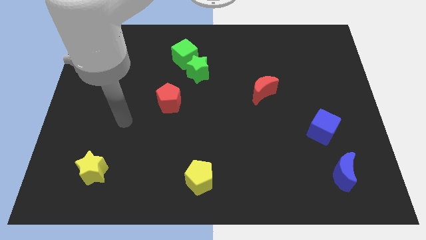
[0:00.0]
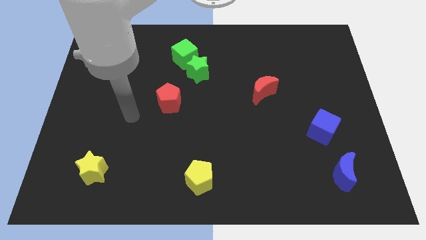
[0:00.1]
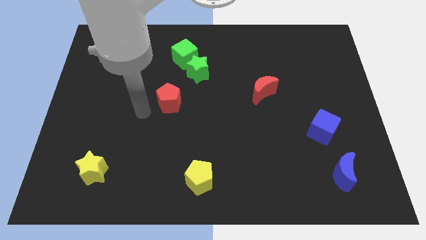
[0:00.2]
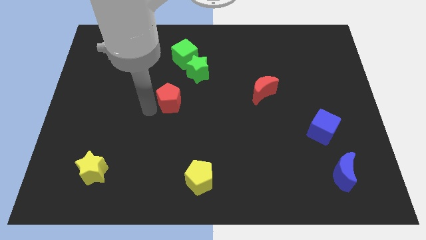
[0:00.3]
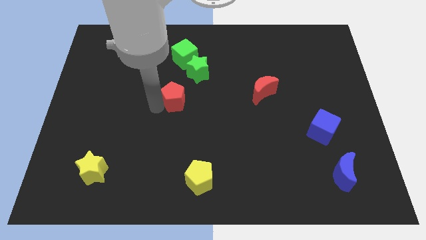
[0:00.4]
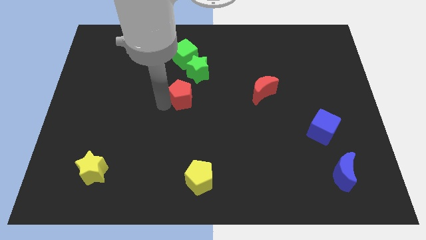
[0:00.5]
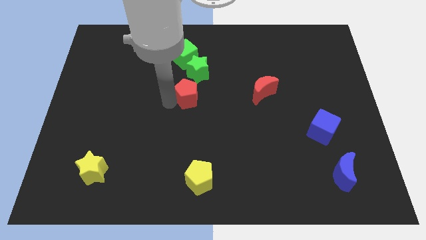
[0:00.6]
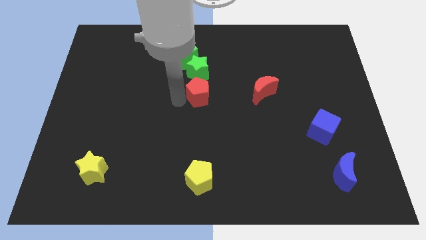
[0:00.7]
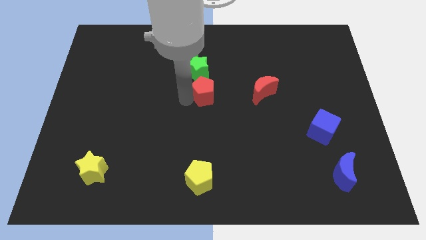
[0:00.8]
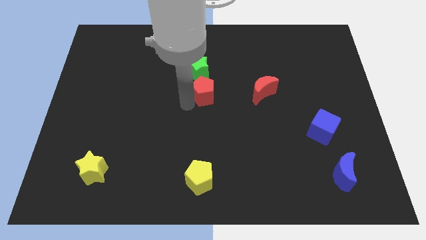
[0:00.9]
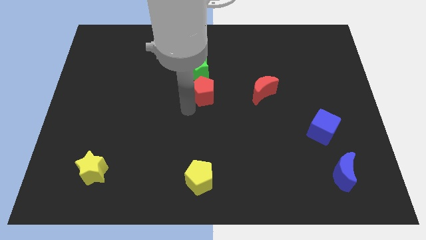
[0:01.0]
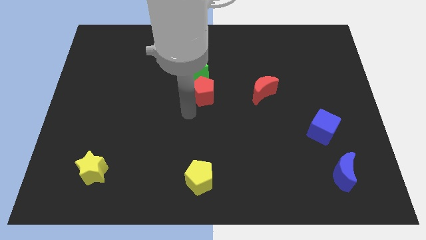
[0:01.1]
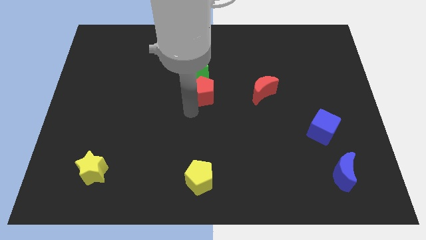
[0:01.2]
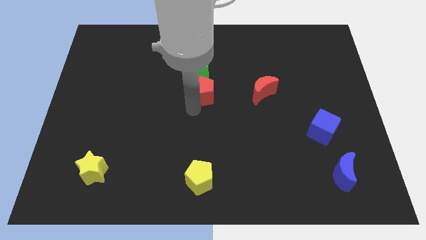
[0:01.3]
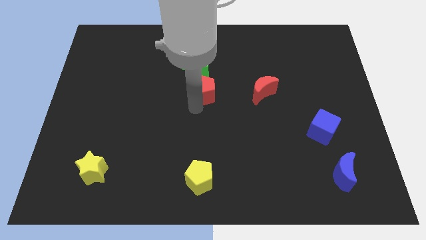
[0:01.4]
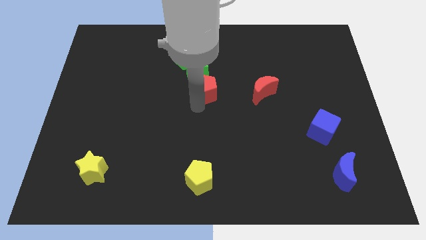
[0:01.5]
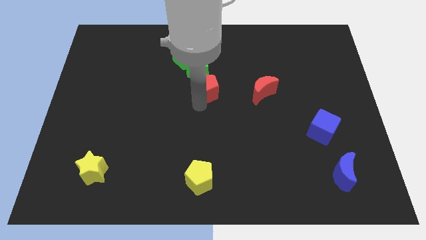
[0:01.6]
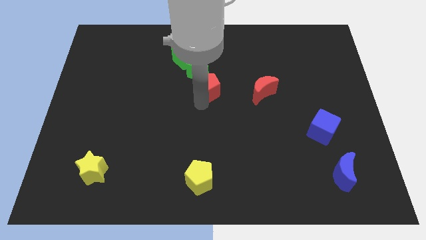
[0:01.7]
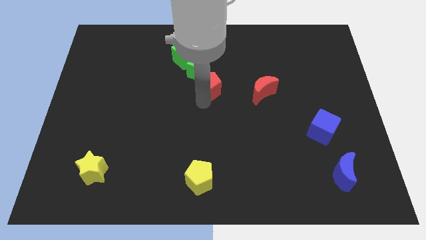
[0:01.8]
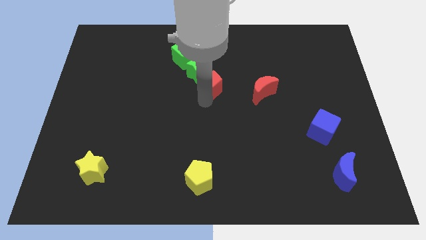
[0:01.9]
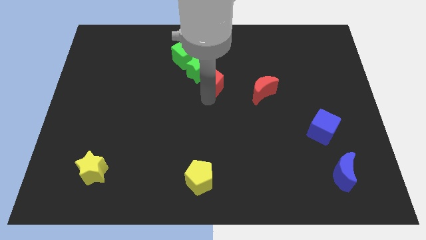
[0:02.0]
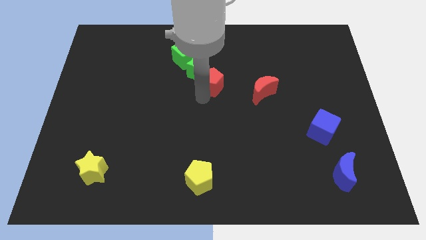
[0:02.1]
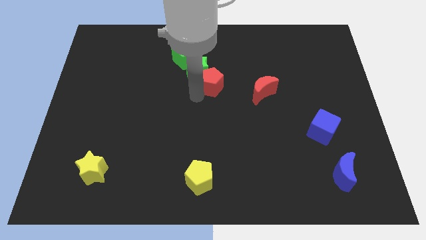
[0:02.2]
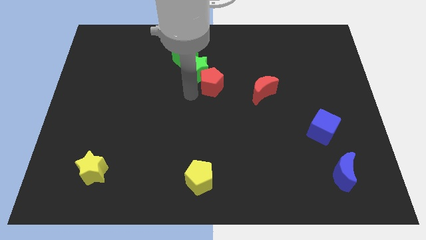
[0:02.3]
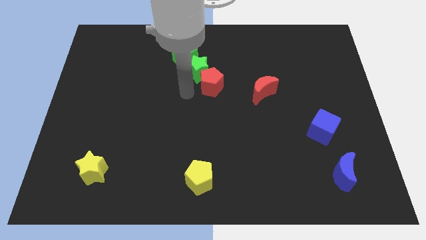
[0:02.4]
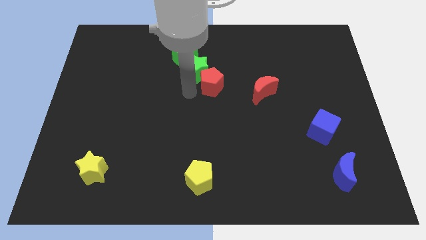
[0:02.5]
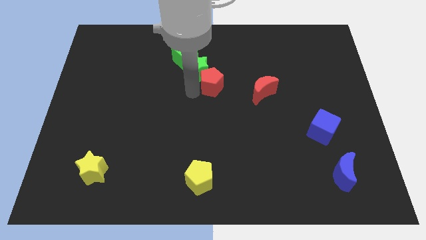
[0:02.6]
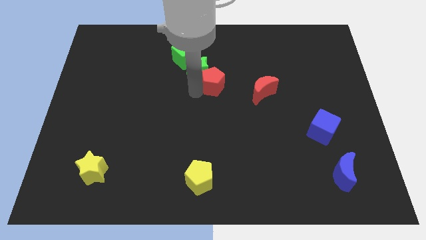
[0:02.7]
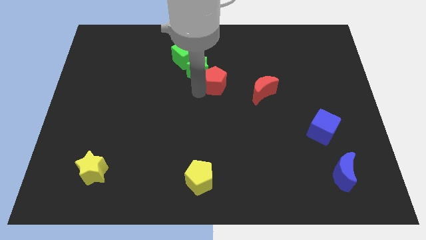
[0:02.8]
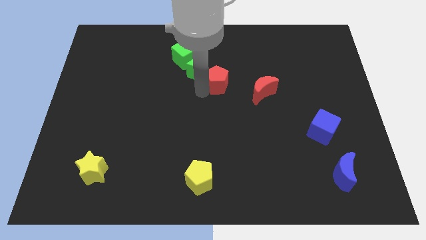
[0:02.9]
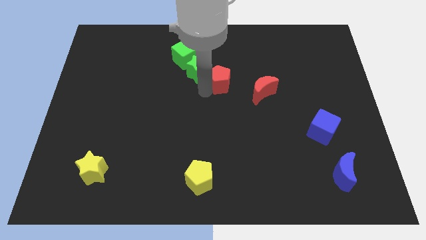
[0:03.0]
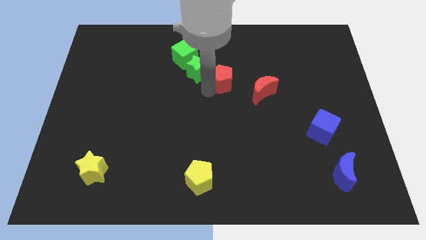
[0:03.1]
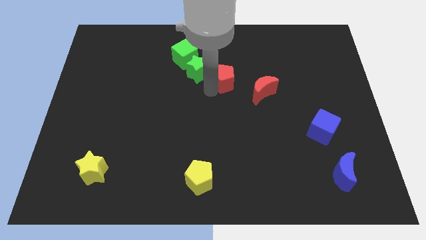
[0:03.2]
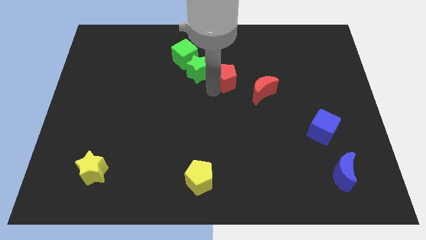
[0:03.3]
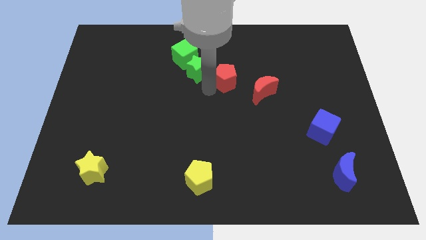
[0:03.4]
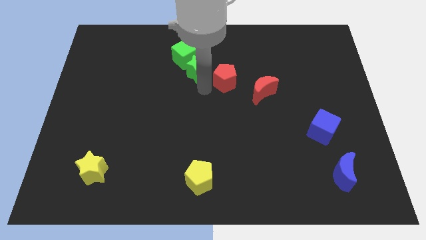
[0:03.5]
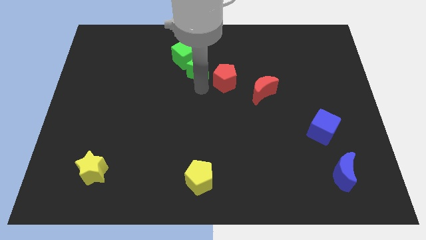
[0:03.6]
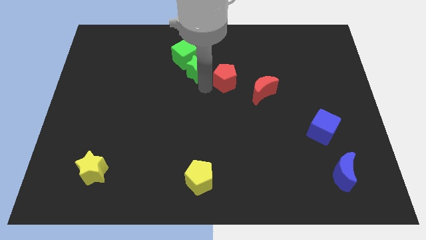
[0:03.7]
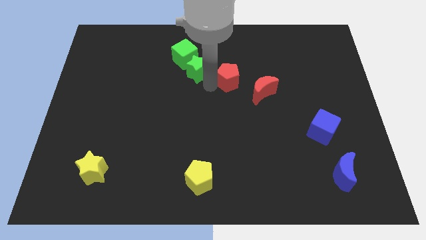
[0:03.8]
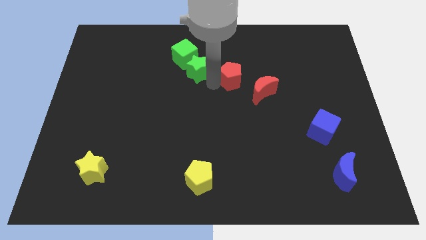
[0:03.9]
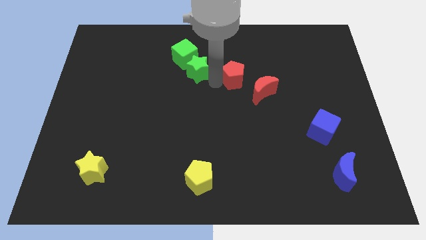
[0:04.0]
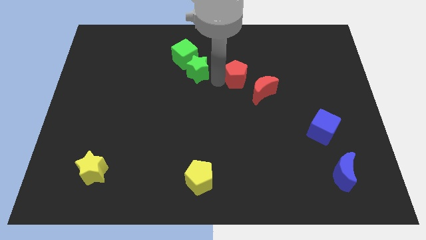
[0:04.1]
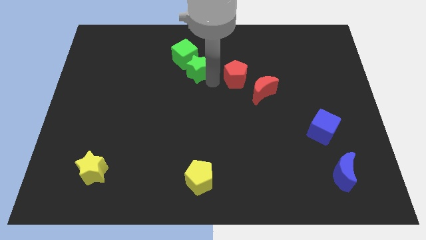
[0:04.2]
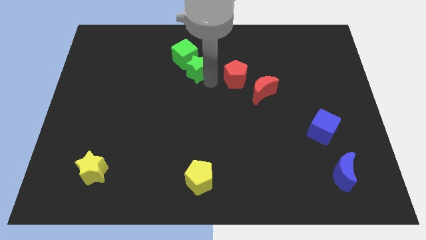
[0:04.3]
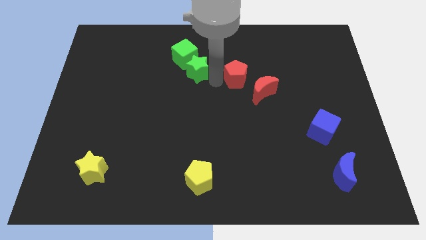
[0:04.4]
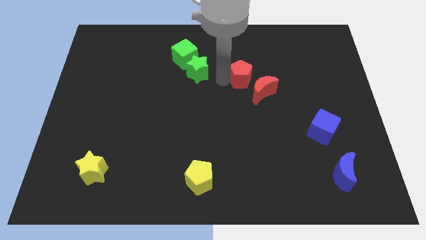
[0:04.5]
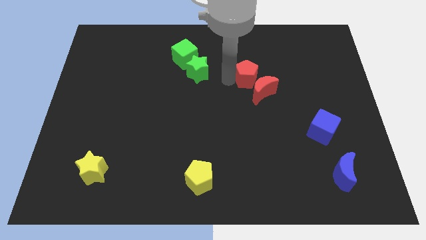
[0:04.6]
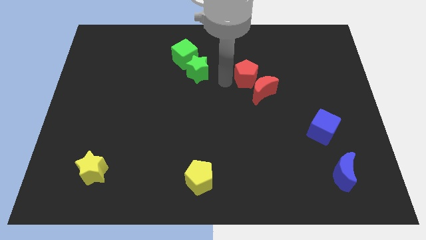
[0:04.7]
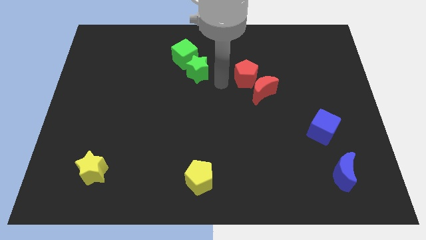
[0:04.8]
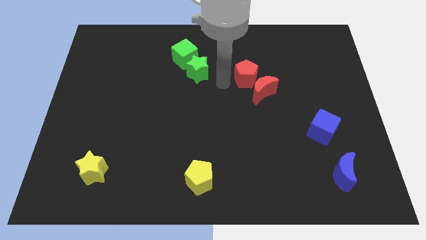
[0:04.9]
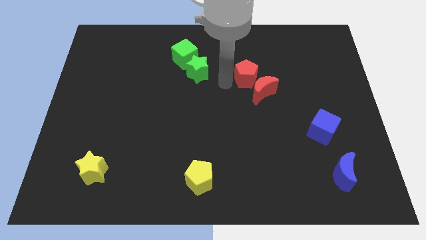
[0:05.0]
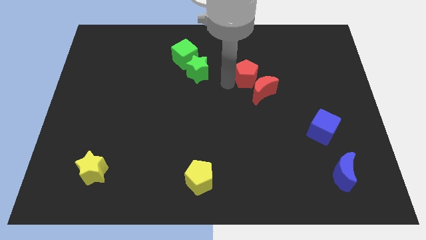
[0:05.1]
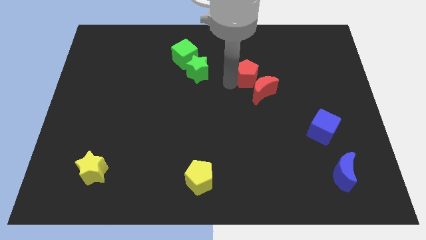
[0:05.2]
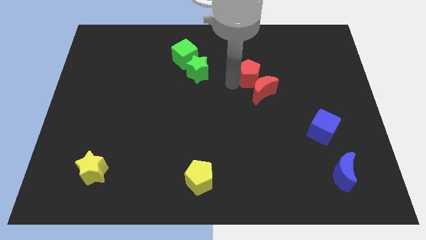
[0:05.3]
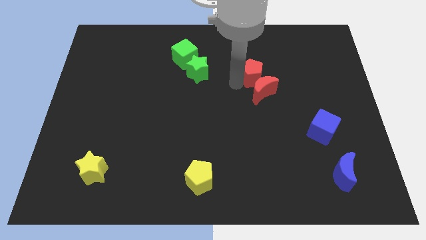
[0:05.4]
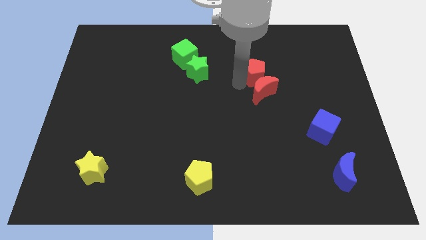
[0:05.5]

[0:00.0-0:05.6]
move the red pentagon to the top right of the red moon

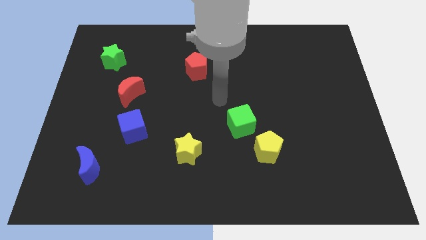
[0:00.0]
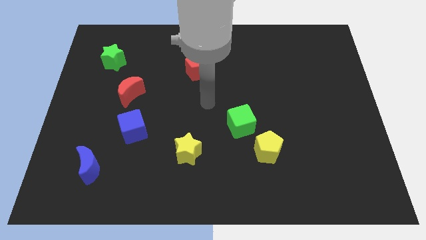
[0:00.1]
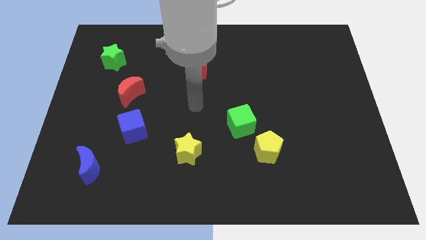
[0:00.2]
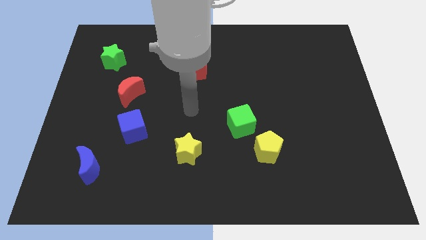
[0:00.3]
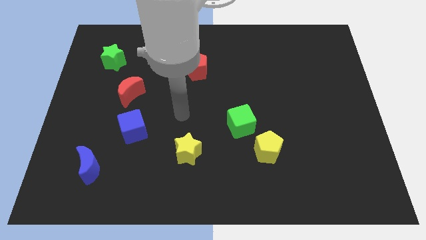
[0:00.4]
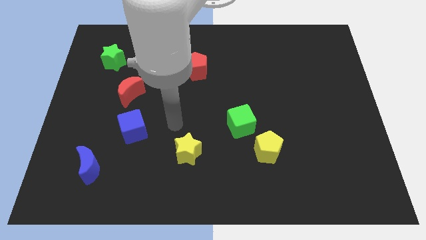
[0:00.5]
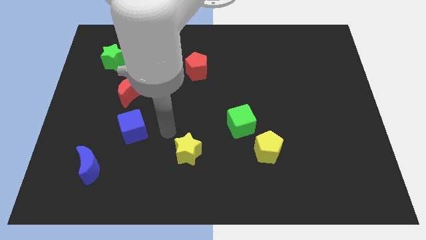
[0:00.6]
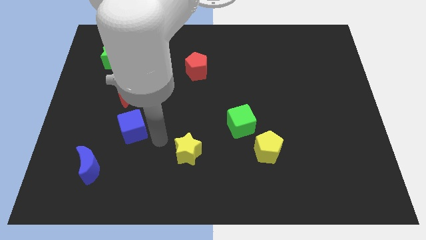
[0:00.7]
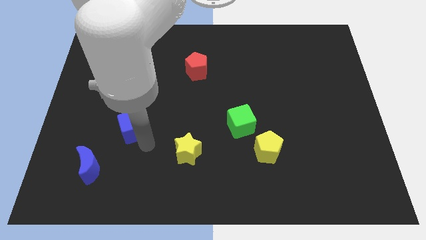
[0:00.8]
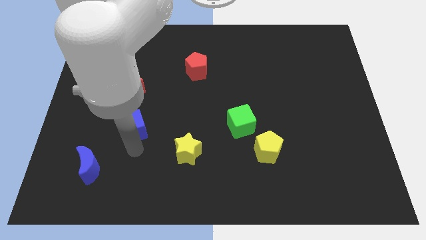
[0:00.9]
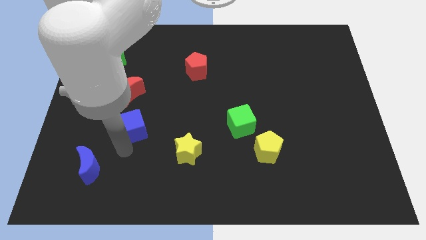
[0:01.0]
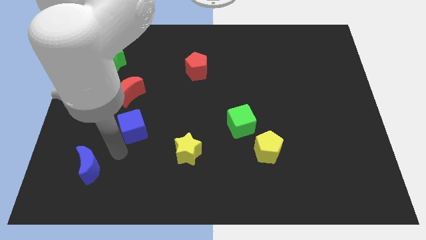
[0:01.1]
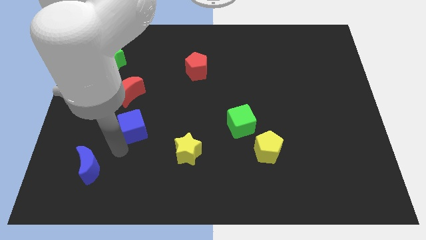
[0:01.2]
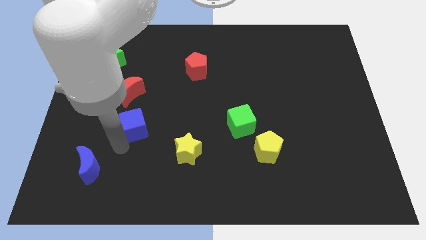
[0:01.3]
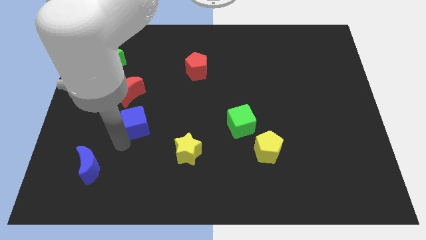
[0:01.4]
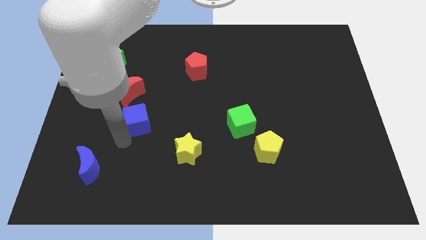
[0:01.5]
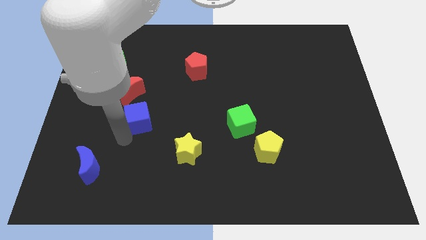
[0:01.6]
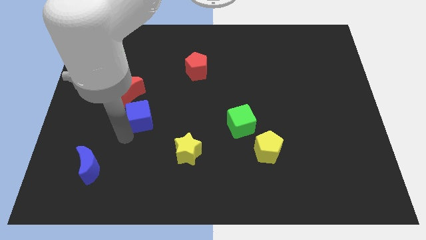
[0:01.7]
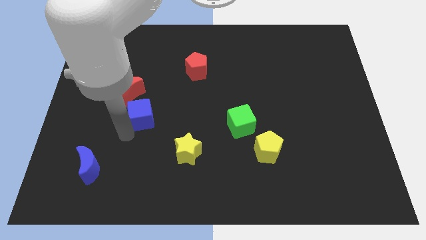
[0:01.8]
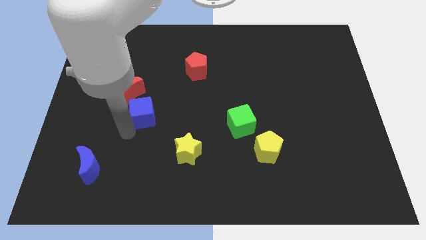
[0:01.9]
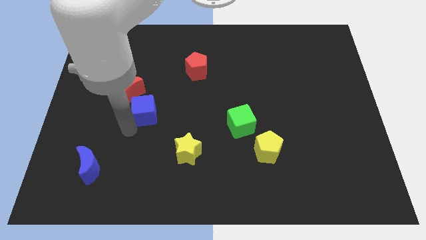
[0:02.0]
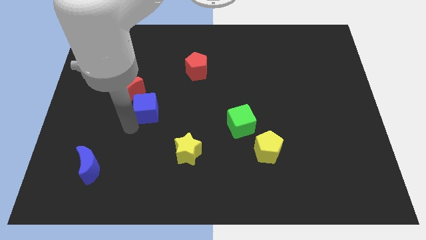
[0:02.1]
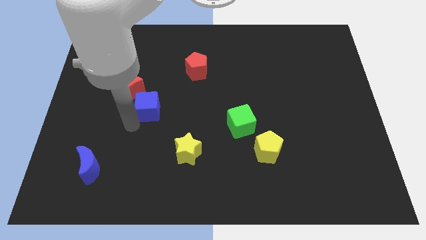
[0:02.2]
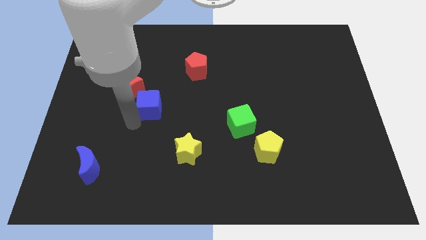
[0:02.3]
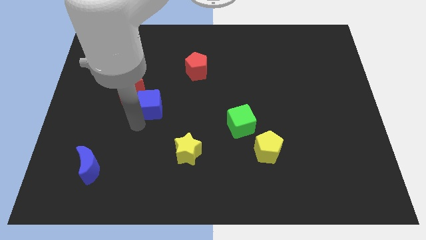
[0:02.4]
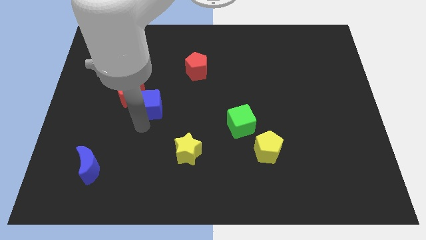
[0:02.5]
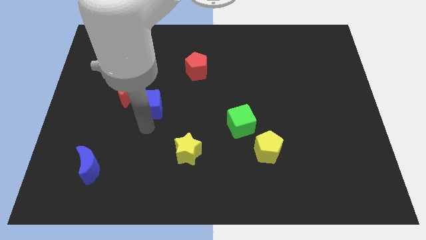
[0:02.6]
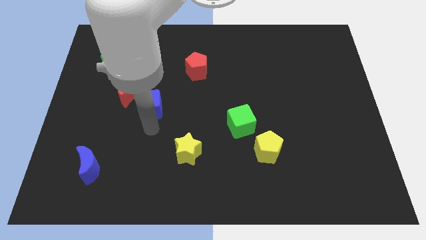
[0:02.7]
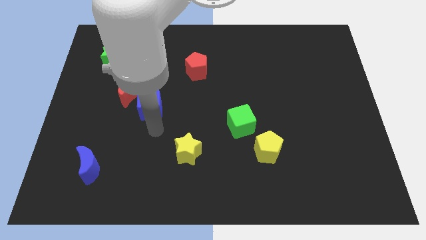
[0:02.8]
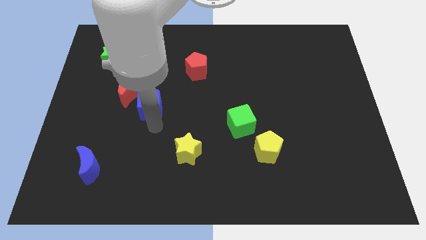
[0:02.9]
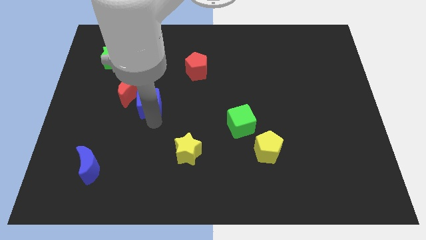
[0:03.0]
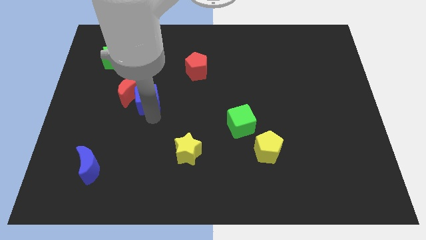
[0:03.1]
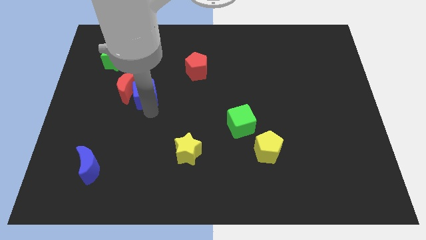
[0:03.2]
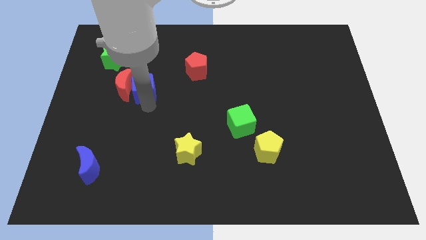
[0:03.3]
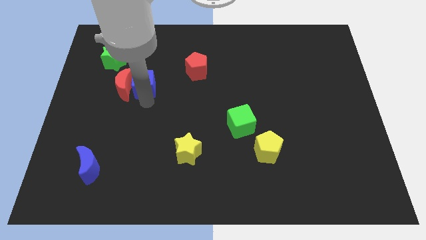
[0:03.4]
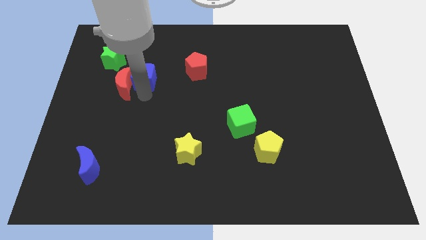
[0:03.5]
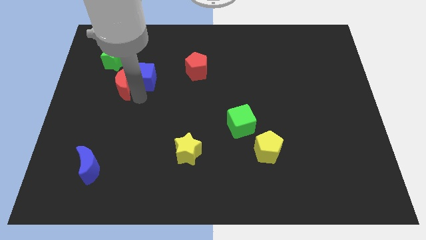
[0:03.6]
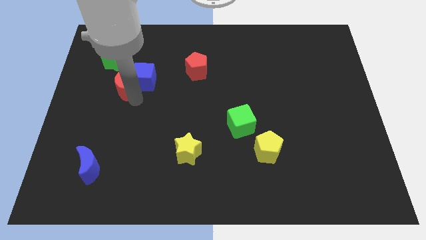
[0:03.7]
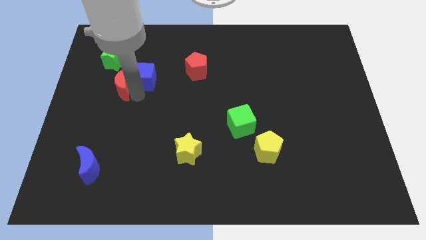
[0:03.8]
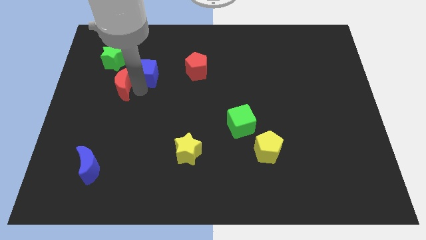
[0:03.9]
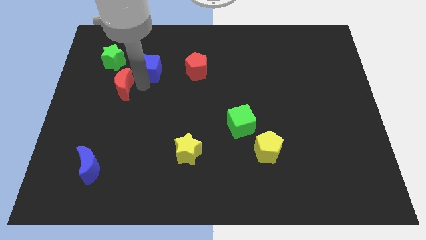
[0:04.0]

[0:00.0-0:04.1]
move the blue cube just right of the green star
